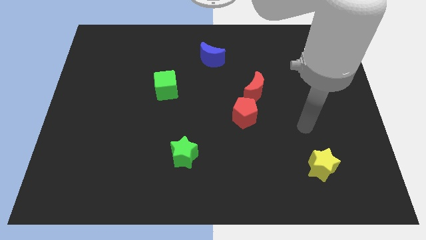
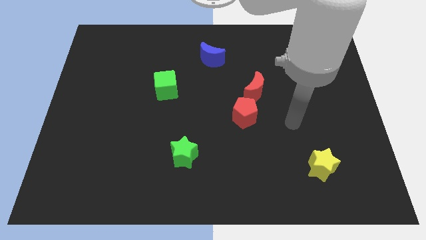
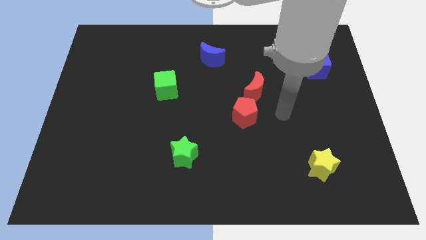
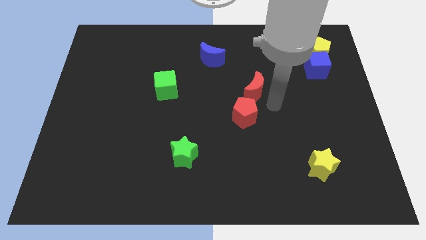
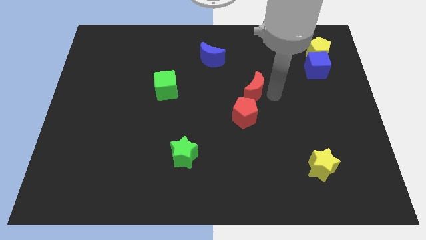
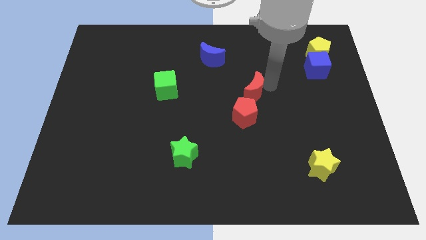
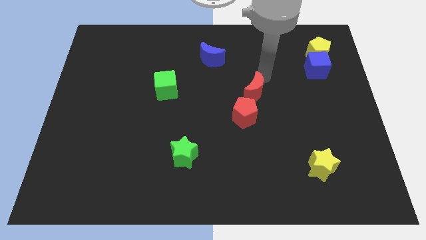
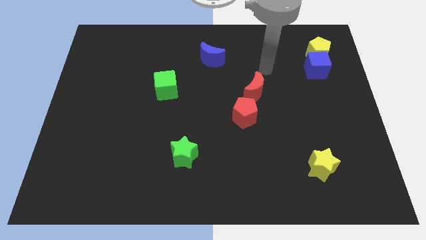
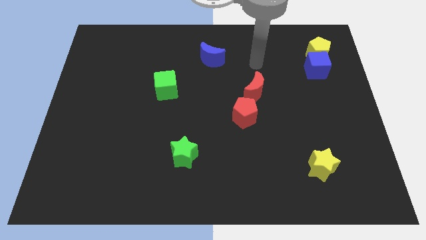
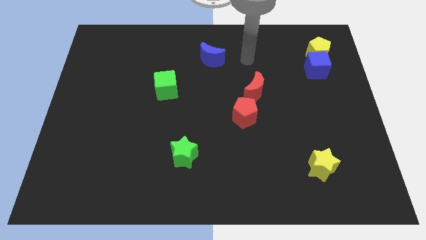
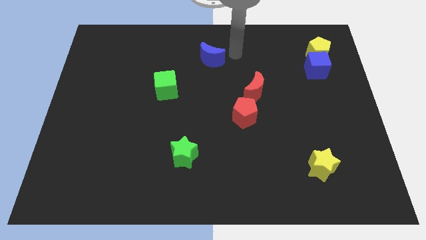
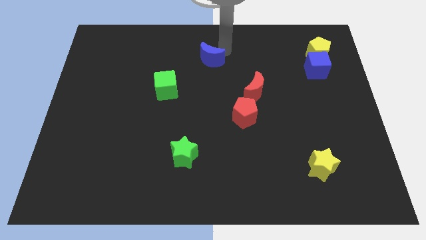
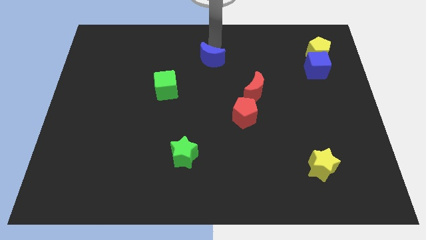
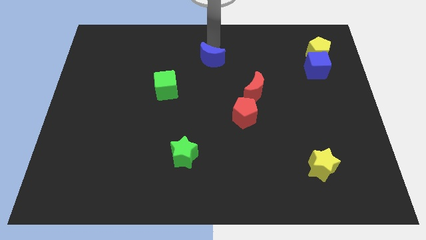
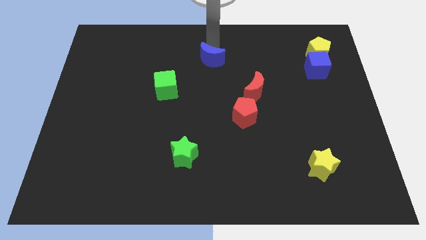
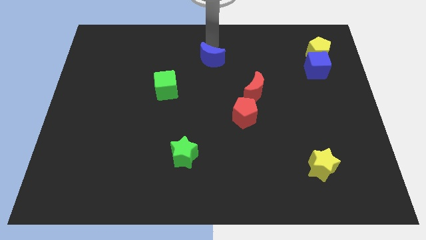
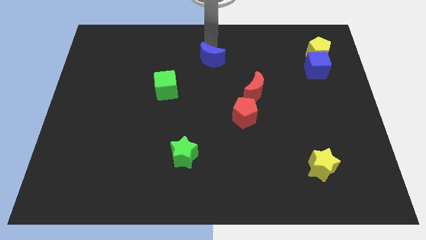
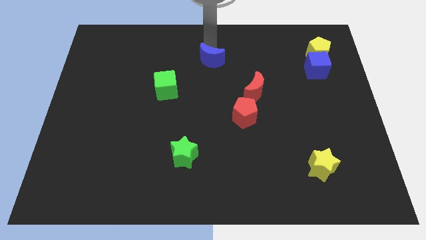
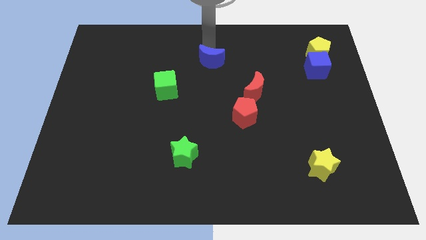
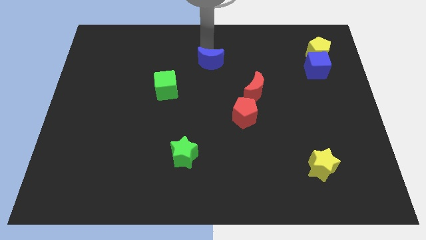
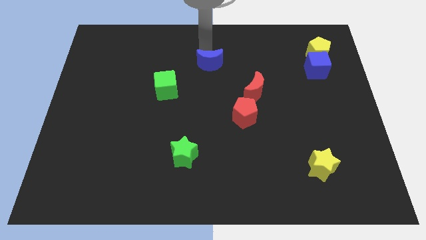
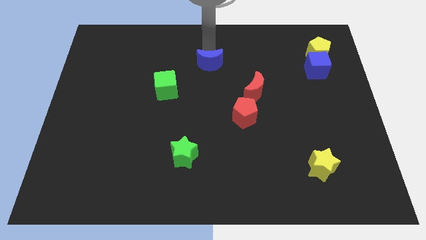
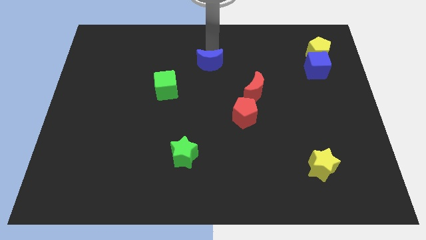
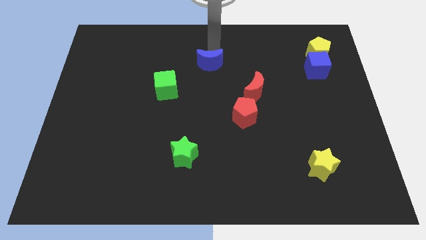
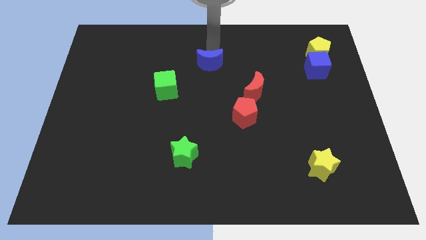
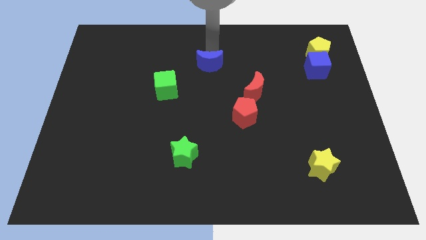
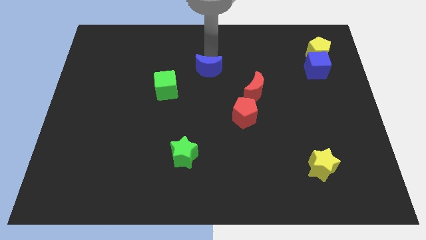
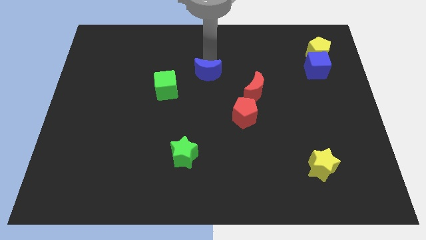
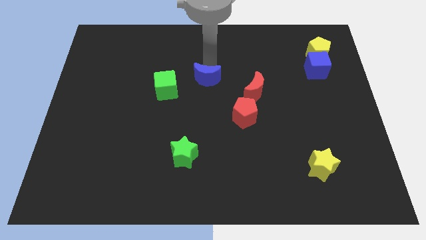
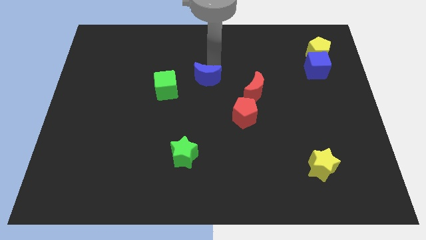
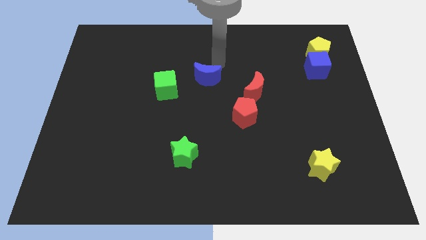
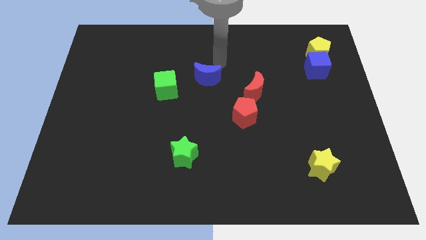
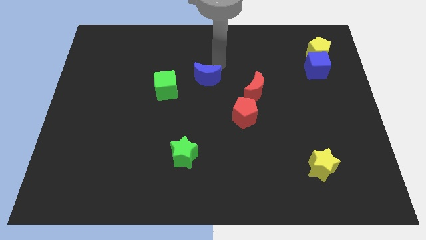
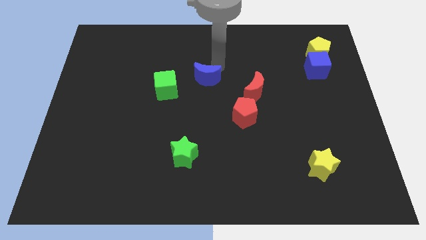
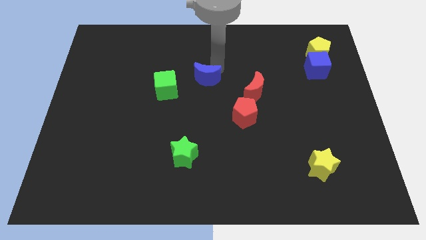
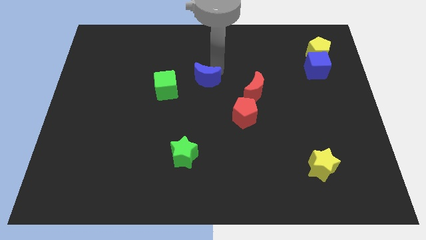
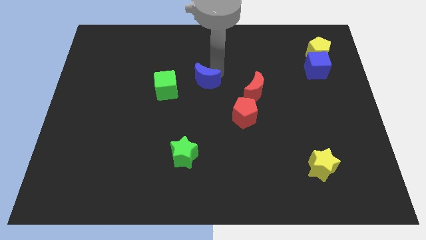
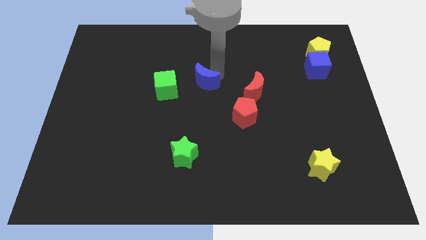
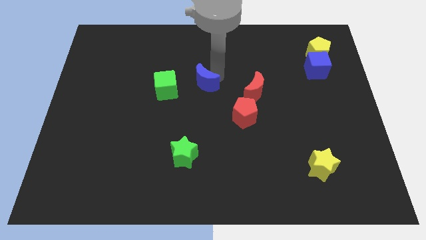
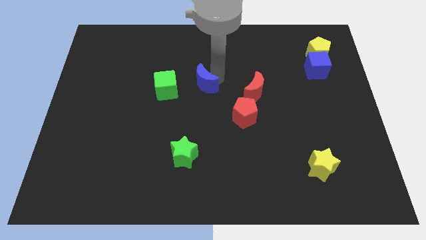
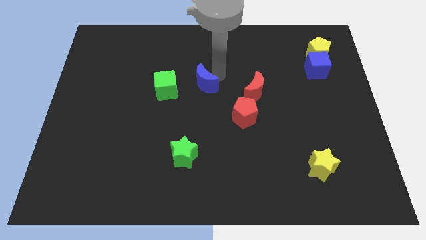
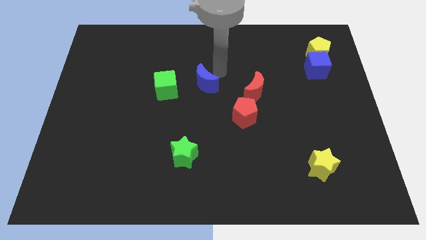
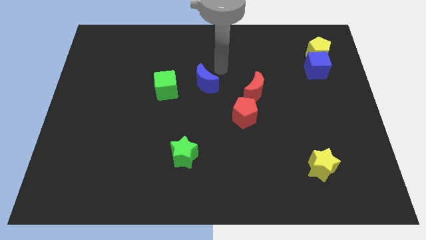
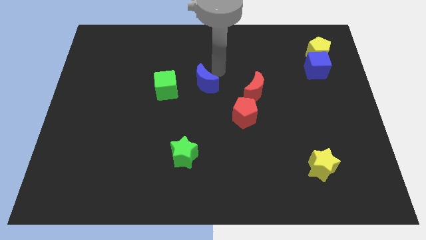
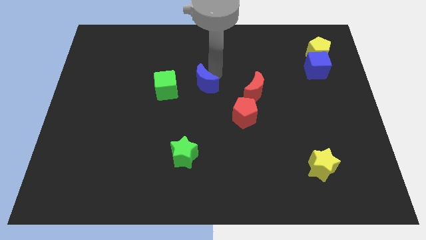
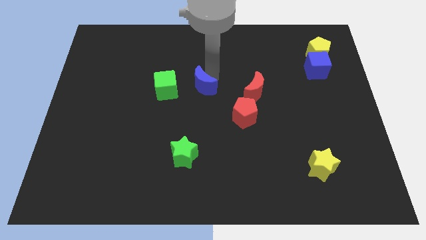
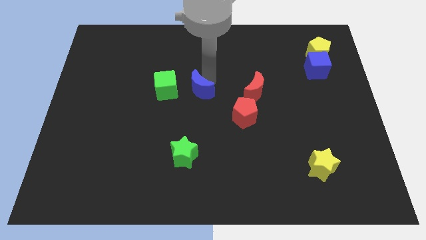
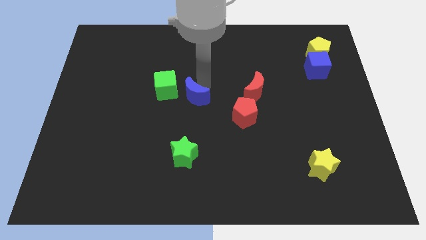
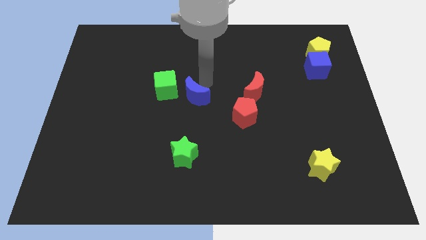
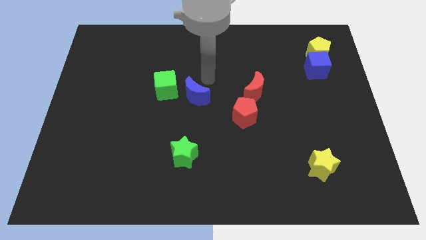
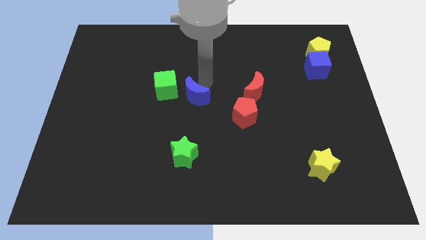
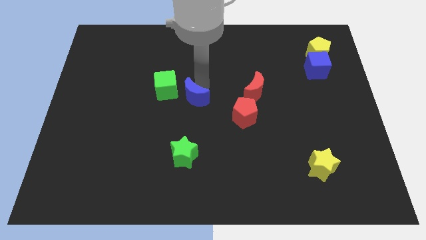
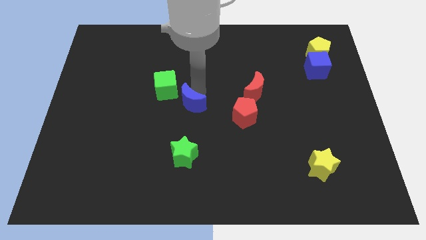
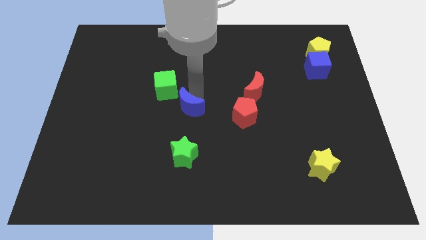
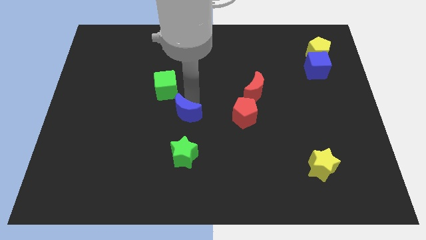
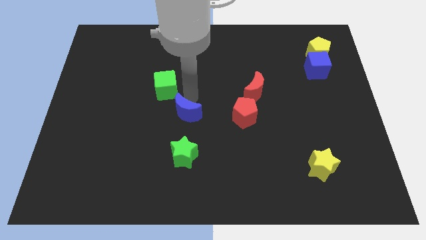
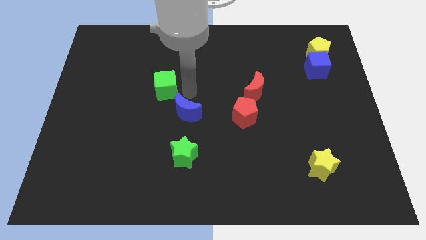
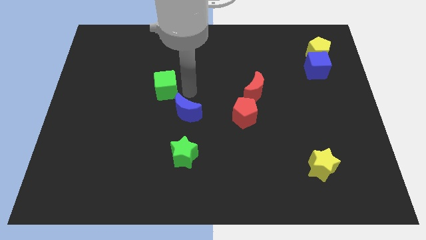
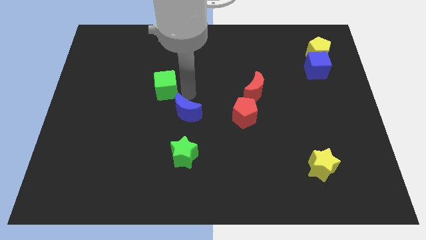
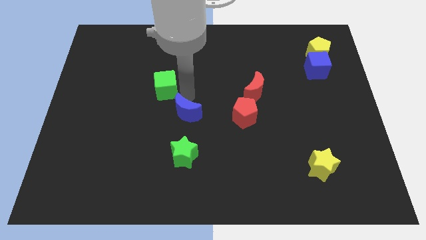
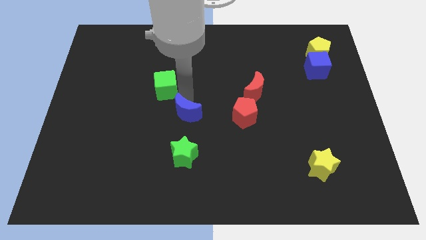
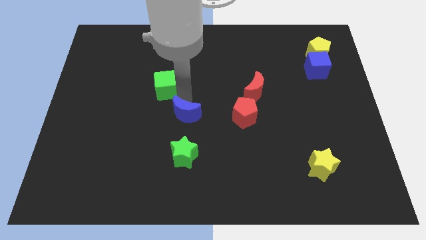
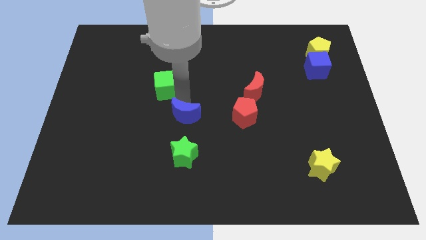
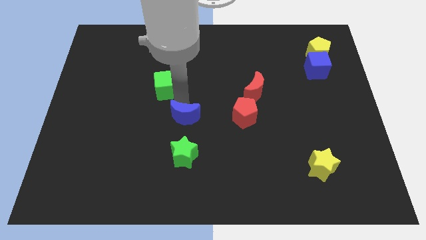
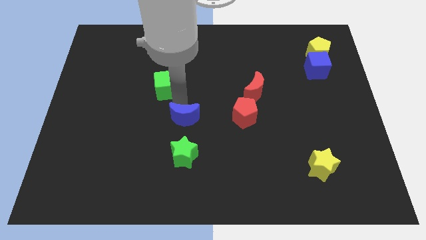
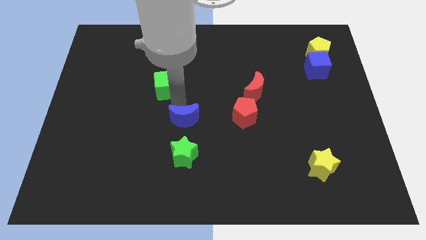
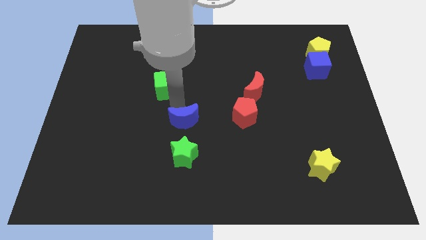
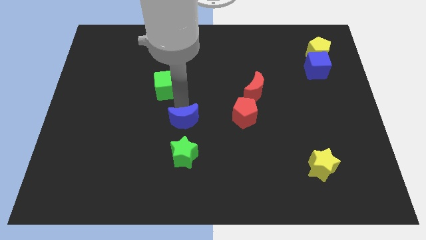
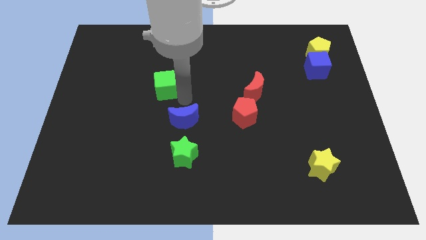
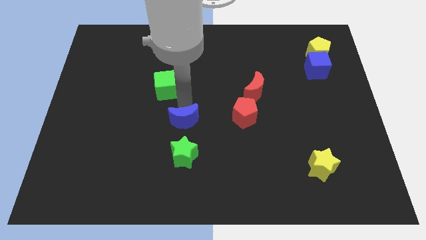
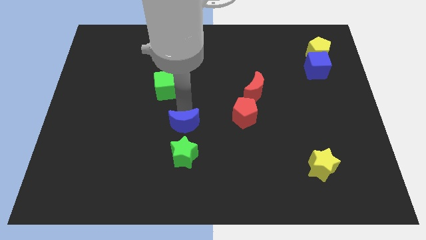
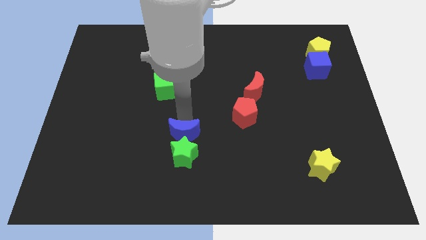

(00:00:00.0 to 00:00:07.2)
push the blue moon next to the green star
